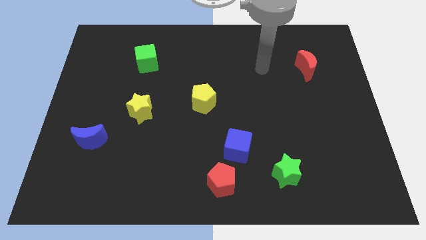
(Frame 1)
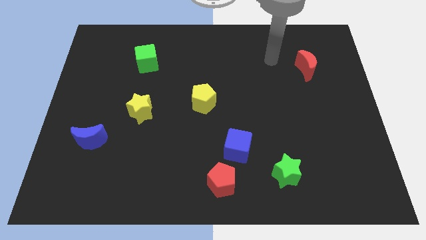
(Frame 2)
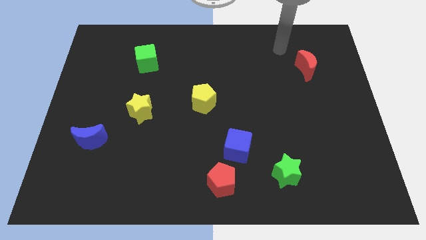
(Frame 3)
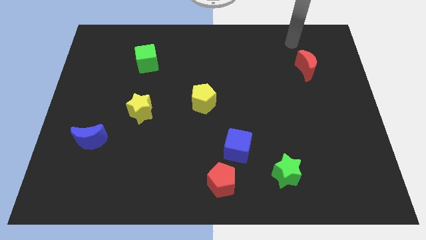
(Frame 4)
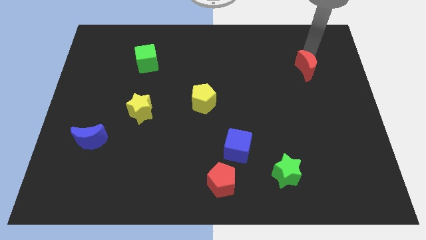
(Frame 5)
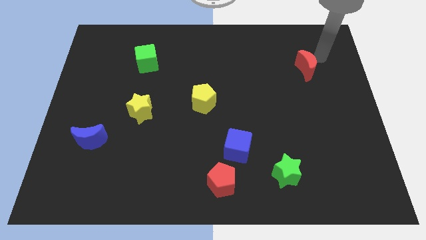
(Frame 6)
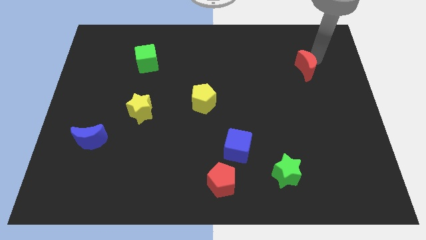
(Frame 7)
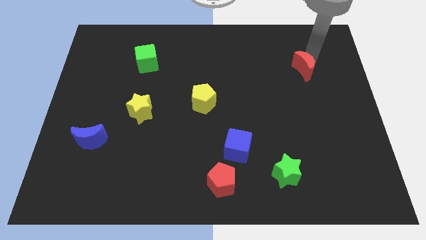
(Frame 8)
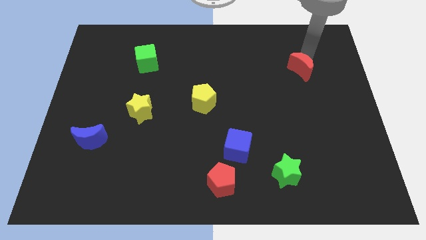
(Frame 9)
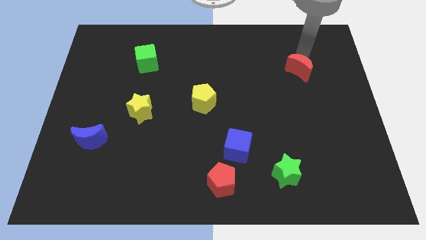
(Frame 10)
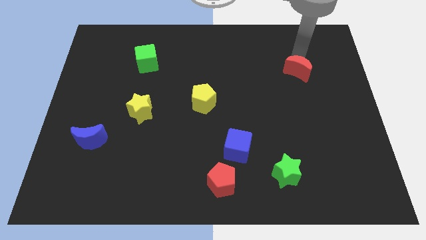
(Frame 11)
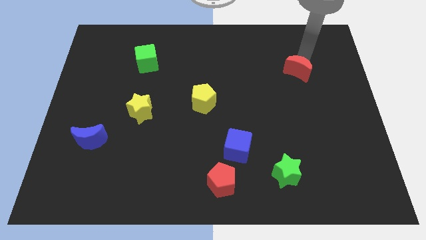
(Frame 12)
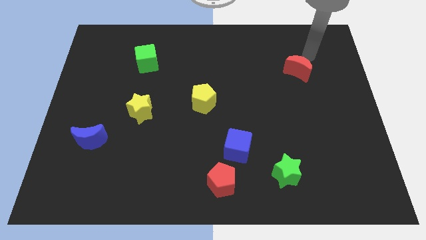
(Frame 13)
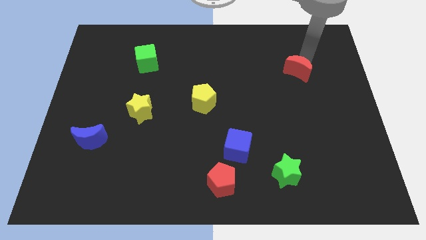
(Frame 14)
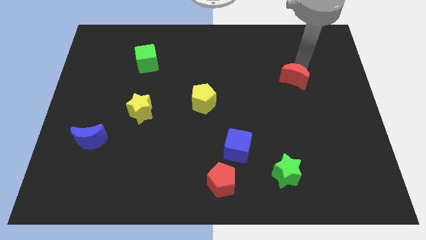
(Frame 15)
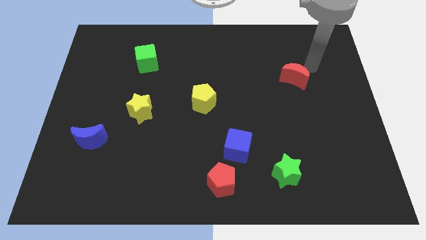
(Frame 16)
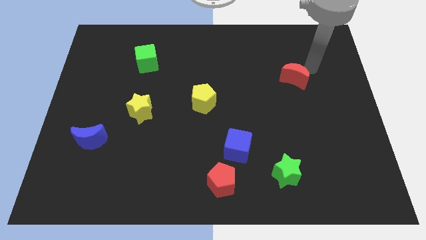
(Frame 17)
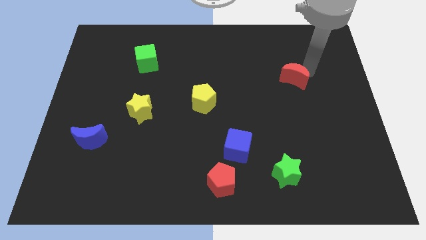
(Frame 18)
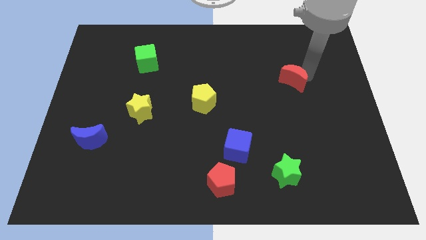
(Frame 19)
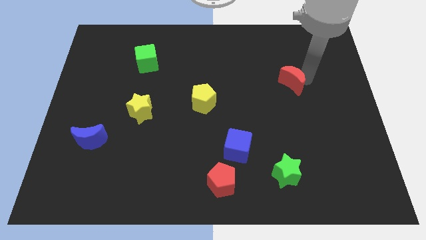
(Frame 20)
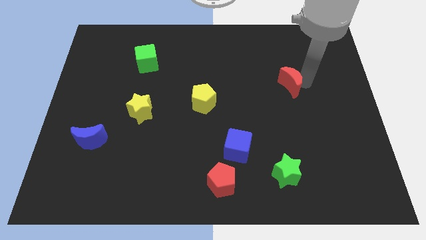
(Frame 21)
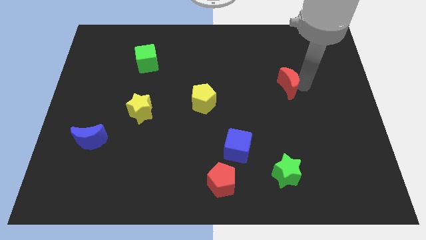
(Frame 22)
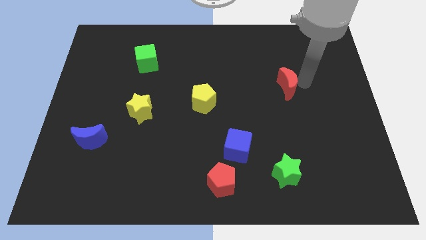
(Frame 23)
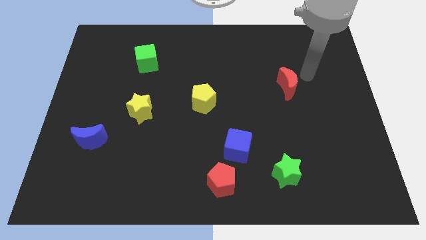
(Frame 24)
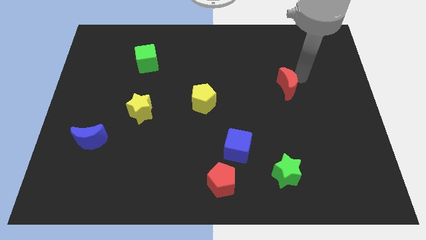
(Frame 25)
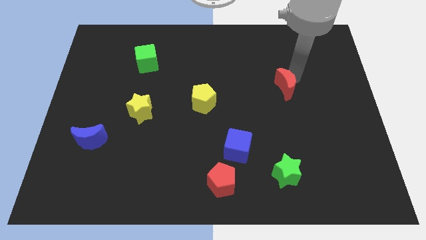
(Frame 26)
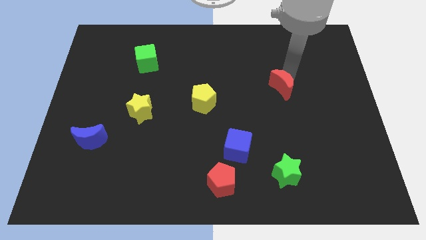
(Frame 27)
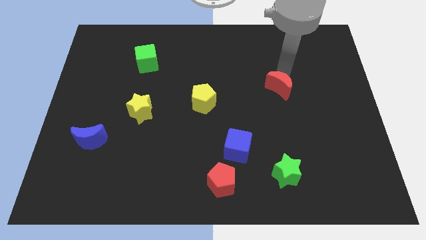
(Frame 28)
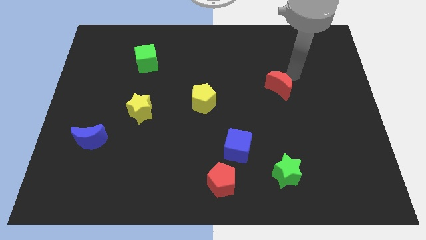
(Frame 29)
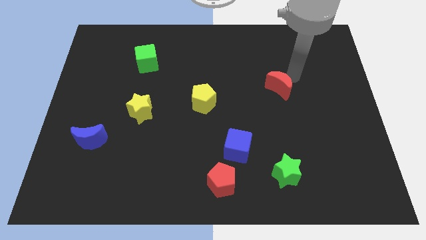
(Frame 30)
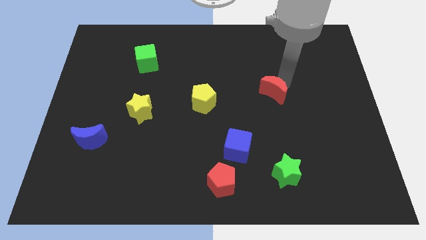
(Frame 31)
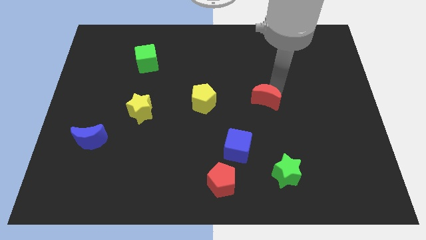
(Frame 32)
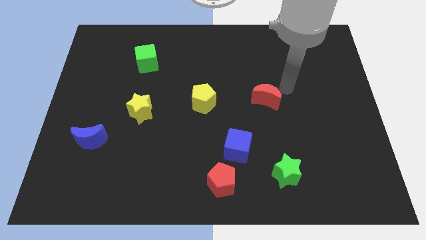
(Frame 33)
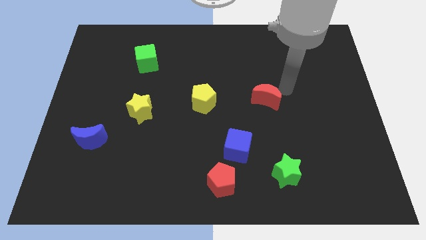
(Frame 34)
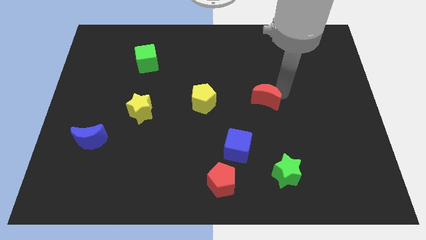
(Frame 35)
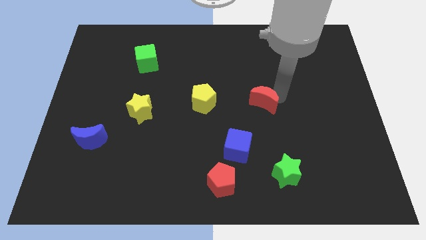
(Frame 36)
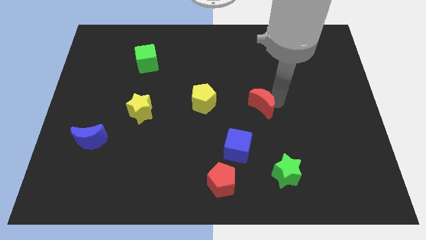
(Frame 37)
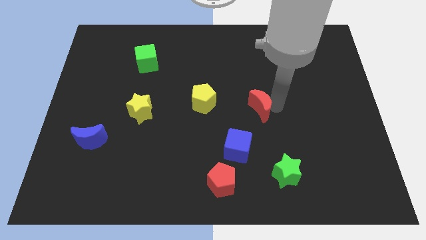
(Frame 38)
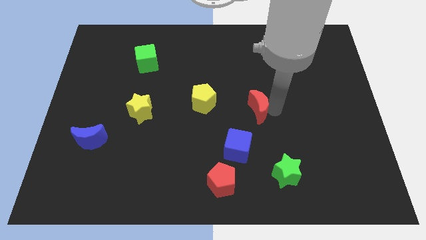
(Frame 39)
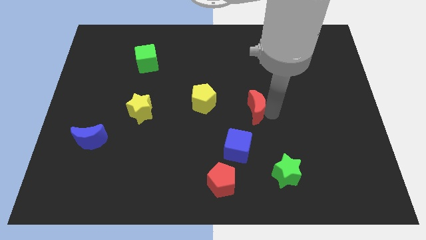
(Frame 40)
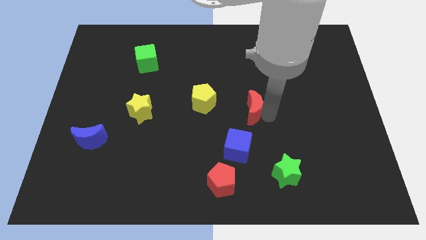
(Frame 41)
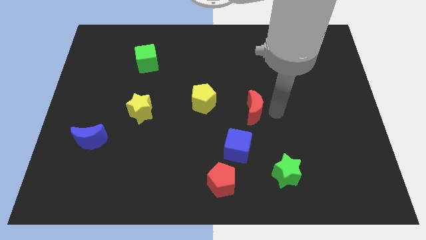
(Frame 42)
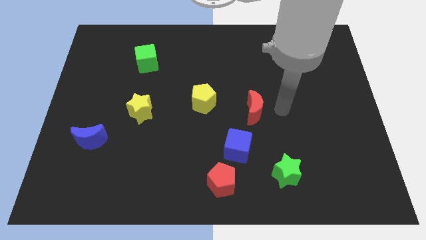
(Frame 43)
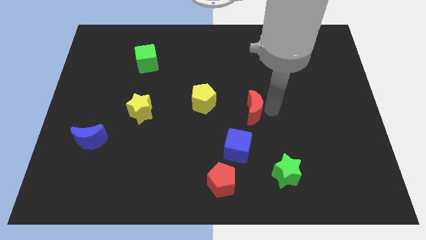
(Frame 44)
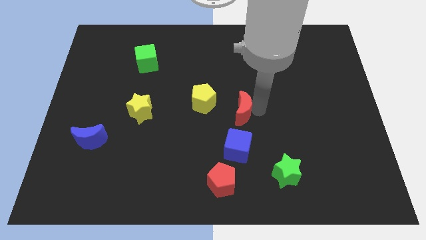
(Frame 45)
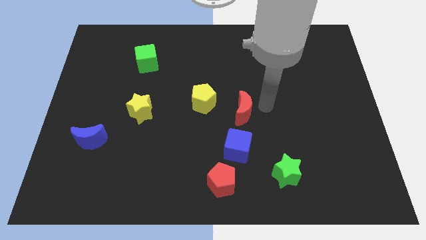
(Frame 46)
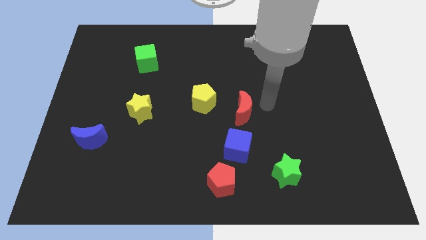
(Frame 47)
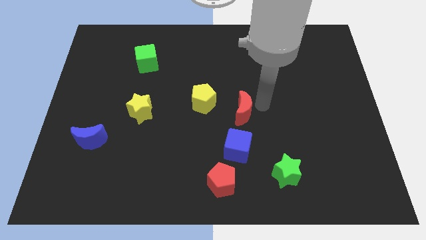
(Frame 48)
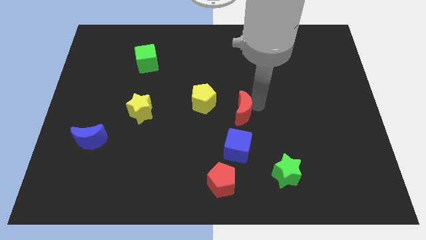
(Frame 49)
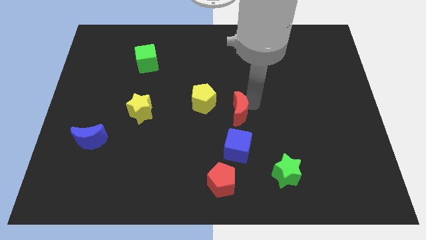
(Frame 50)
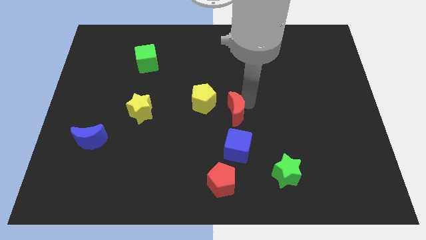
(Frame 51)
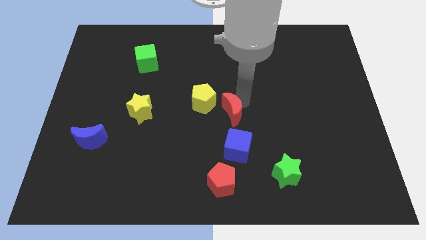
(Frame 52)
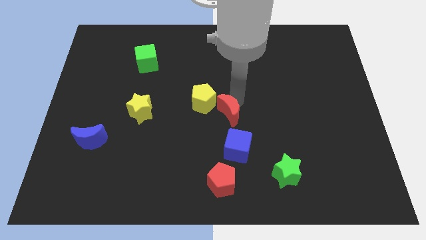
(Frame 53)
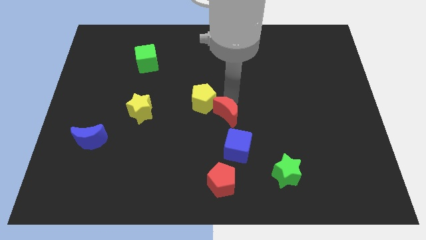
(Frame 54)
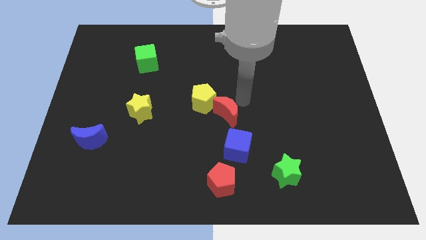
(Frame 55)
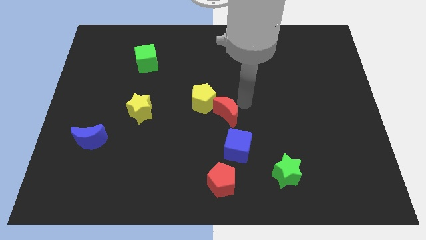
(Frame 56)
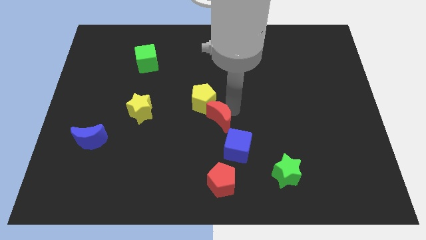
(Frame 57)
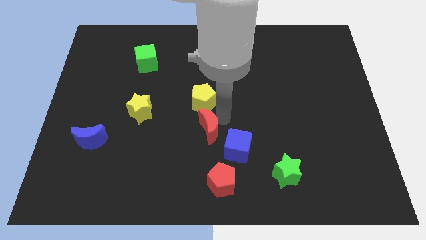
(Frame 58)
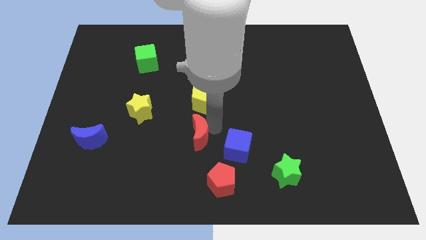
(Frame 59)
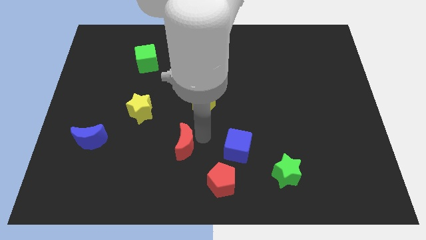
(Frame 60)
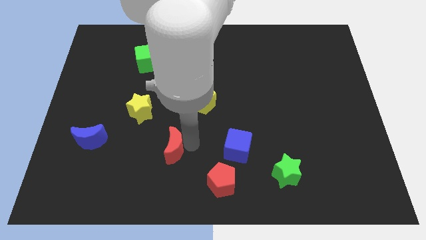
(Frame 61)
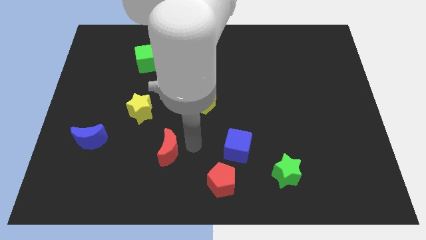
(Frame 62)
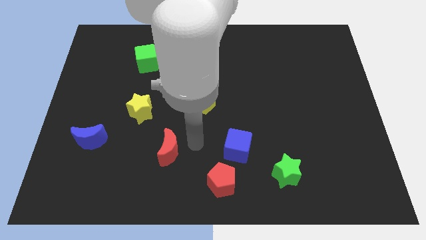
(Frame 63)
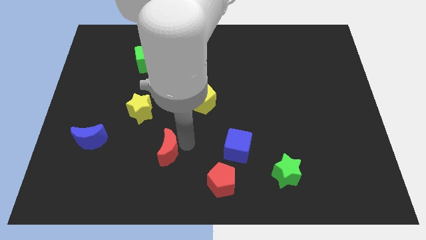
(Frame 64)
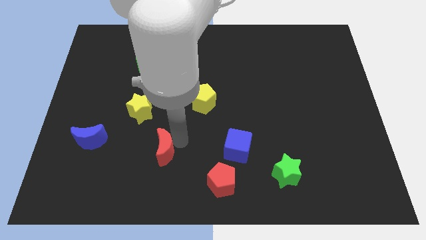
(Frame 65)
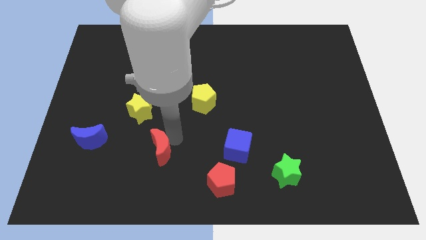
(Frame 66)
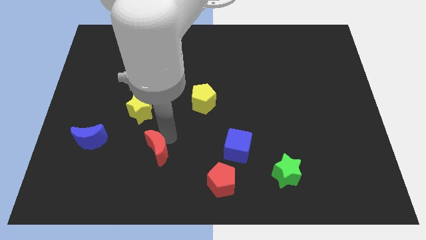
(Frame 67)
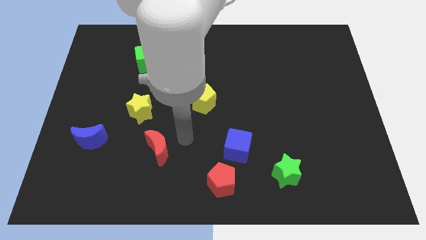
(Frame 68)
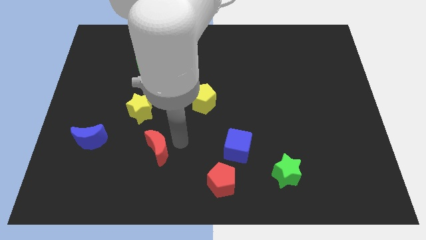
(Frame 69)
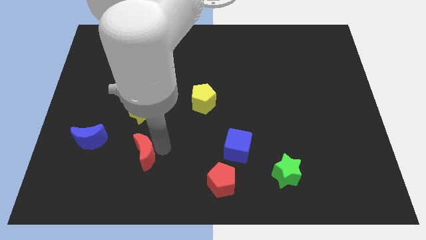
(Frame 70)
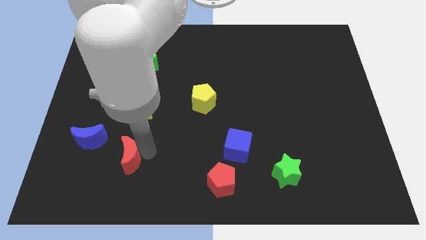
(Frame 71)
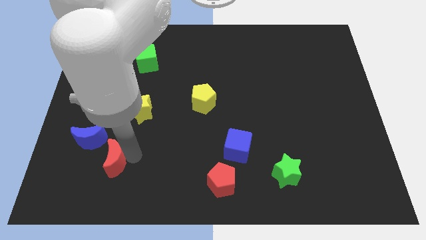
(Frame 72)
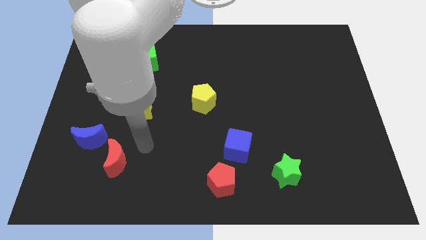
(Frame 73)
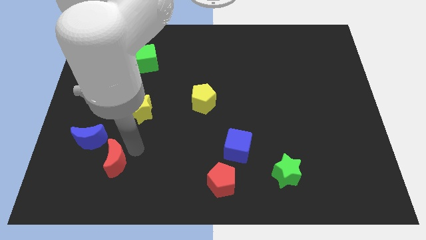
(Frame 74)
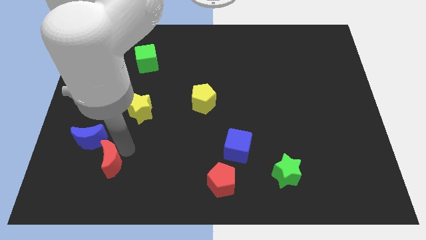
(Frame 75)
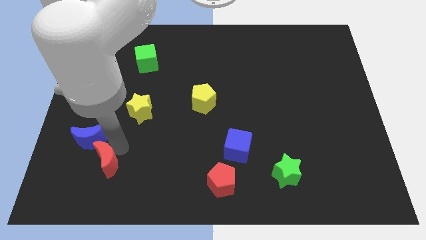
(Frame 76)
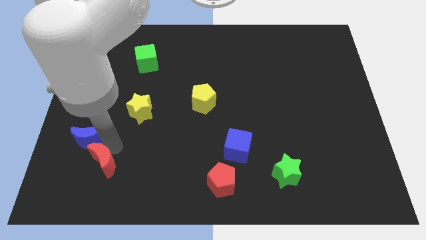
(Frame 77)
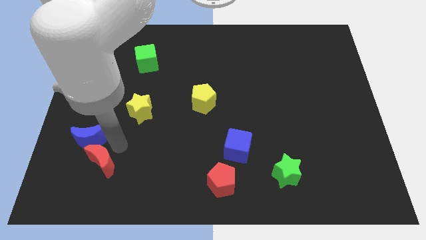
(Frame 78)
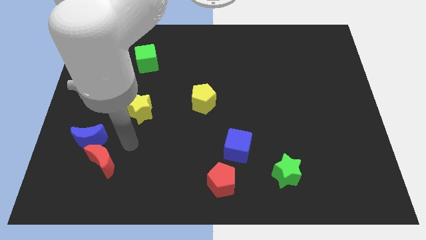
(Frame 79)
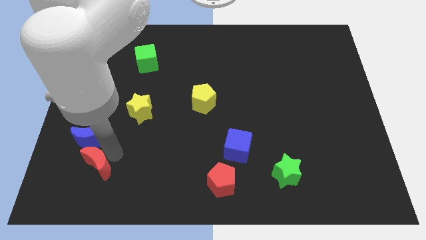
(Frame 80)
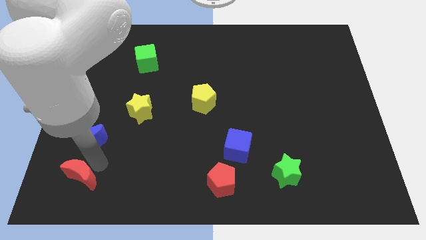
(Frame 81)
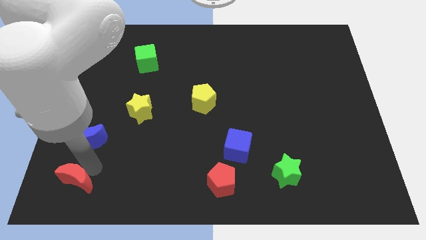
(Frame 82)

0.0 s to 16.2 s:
slide the red moon to the lower left corner
